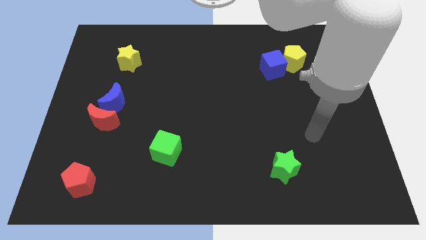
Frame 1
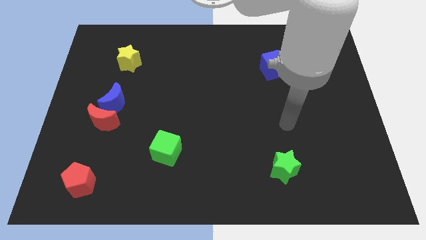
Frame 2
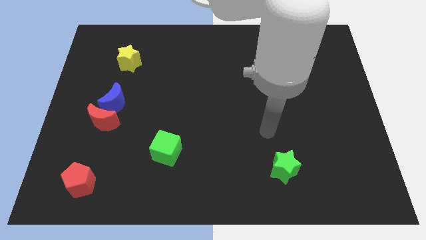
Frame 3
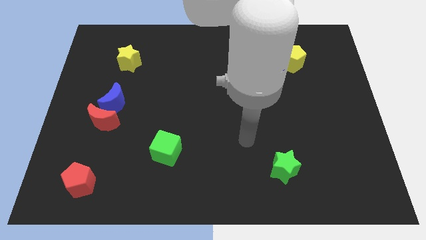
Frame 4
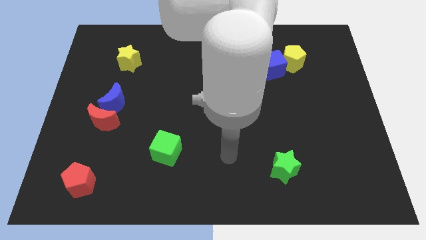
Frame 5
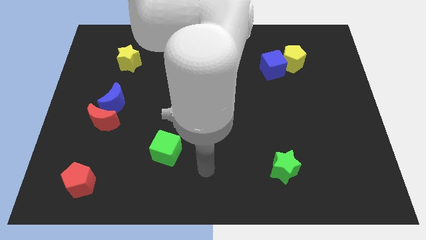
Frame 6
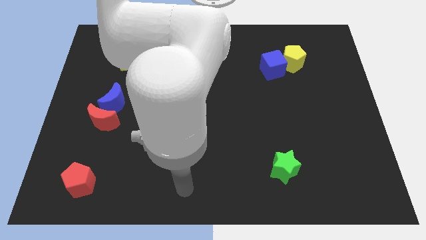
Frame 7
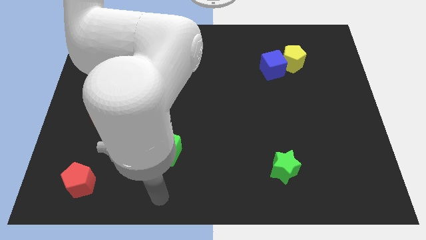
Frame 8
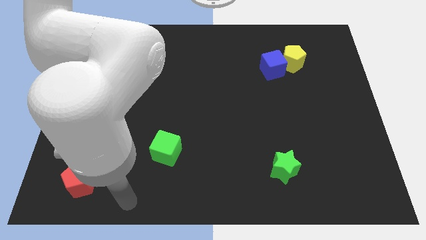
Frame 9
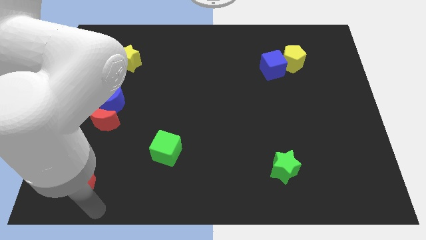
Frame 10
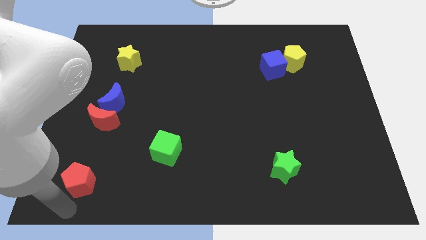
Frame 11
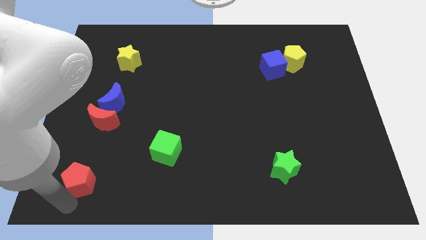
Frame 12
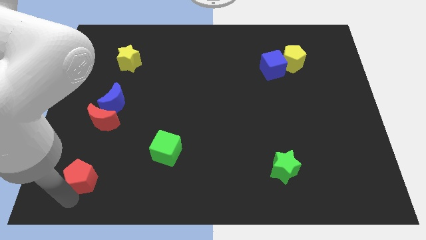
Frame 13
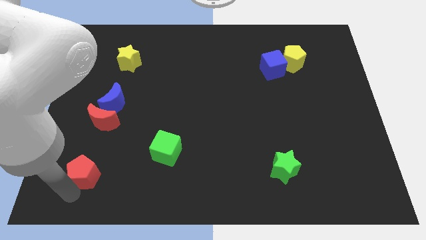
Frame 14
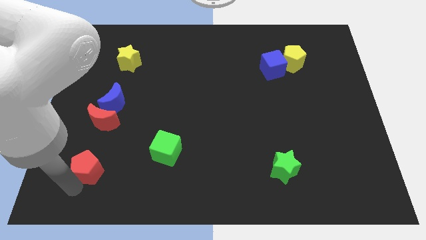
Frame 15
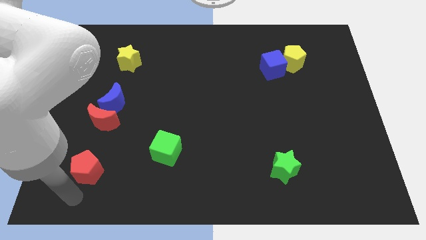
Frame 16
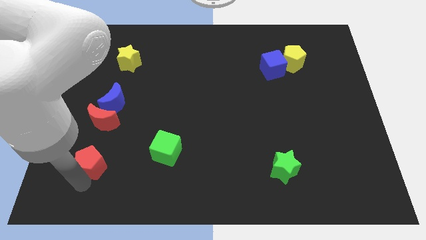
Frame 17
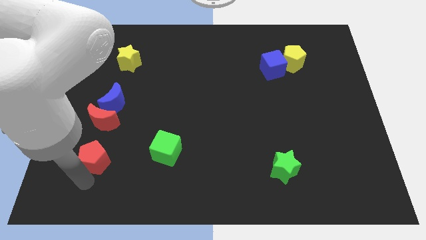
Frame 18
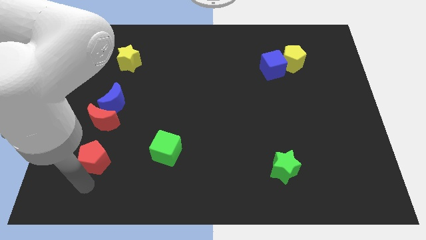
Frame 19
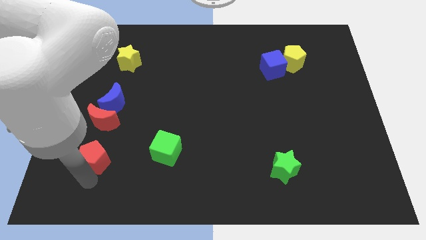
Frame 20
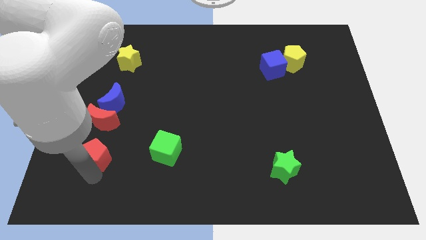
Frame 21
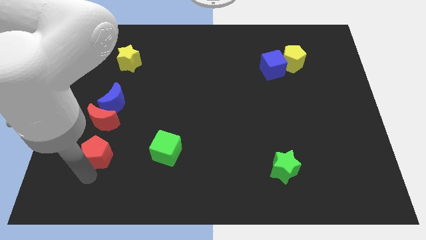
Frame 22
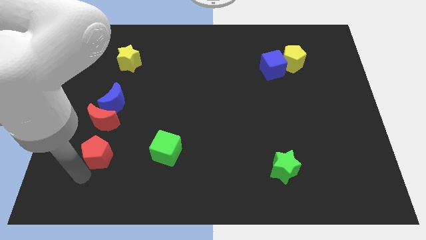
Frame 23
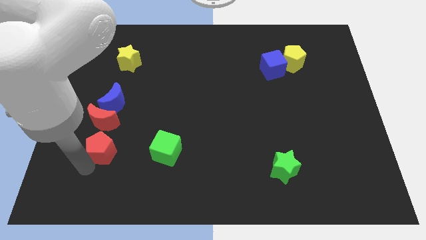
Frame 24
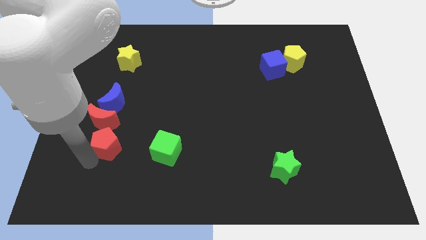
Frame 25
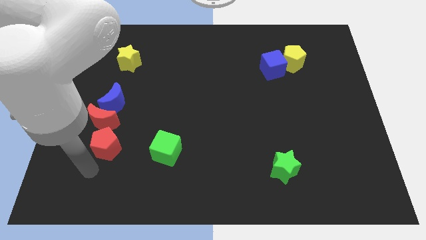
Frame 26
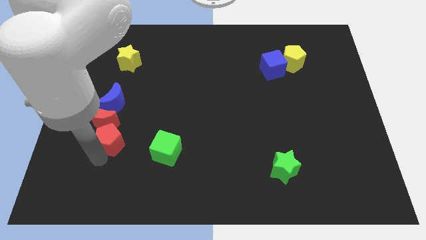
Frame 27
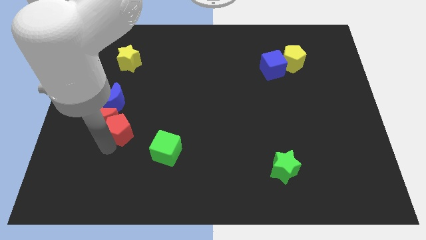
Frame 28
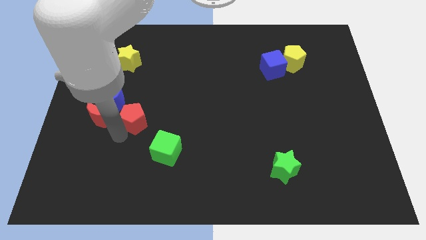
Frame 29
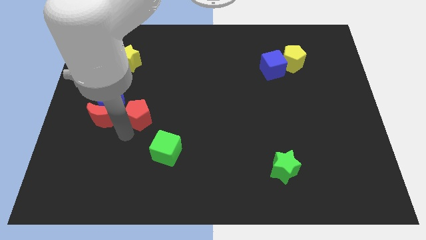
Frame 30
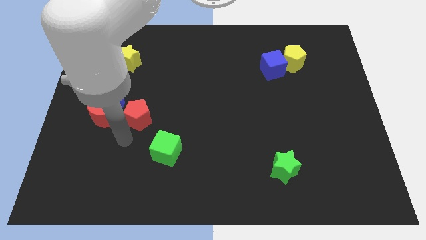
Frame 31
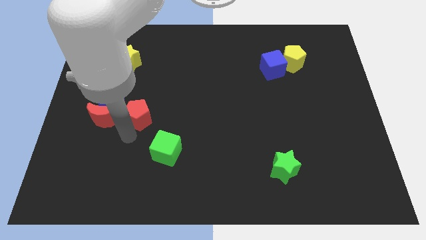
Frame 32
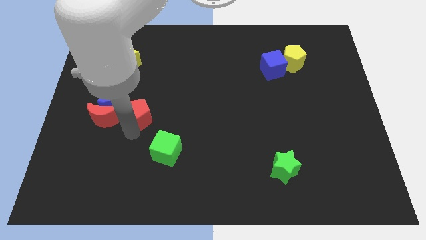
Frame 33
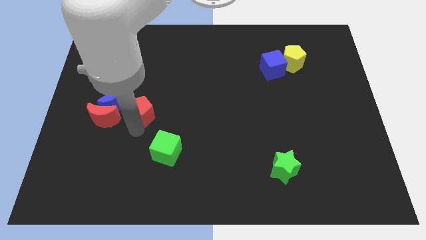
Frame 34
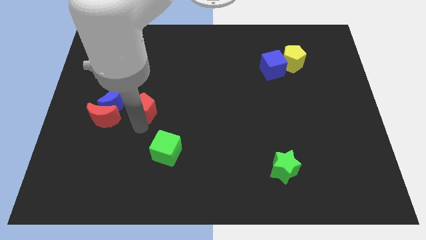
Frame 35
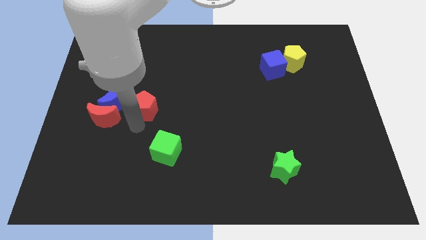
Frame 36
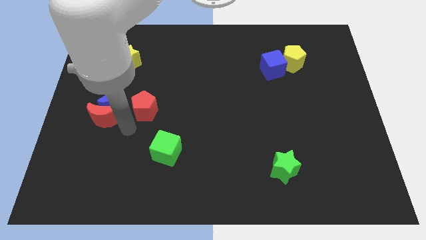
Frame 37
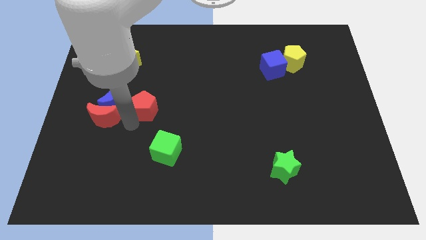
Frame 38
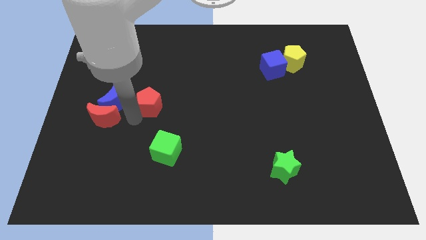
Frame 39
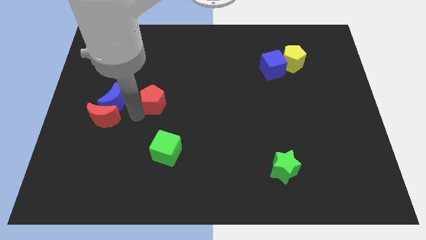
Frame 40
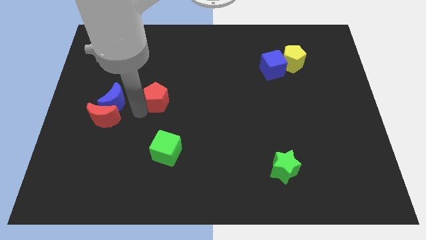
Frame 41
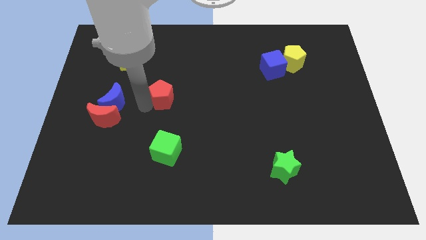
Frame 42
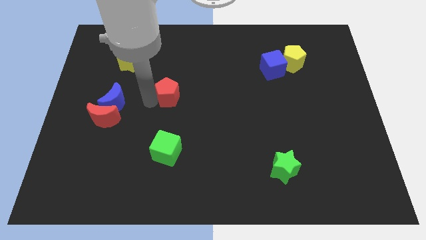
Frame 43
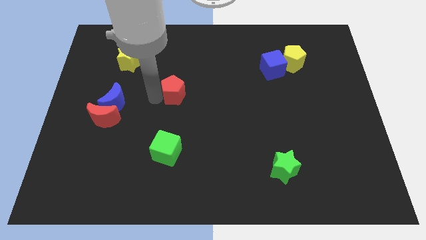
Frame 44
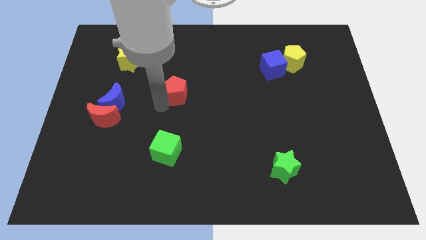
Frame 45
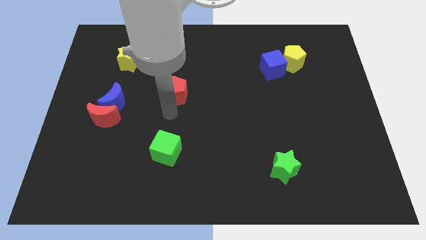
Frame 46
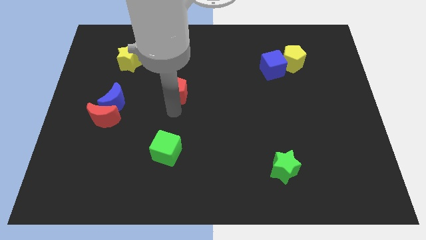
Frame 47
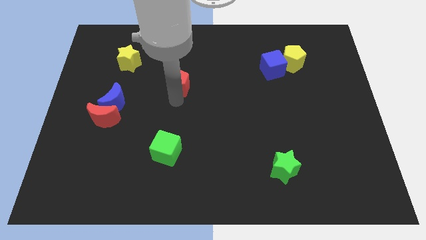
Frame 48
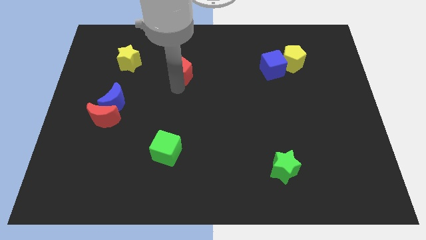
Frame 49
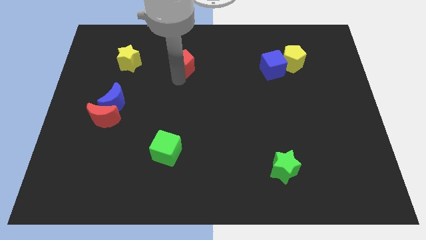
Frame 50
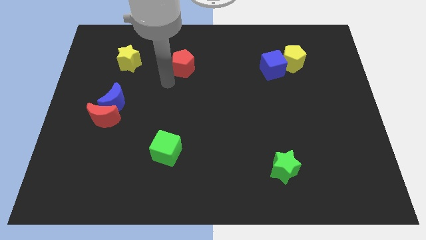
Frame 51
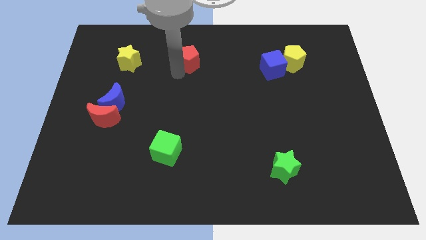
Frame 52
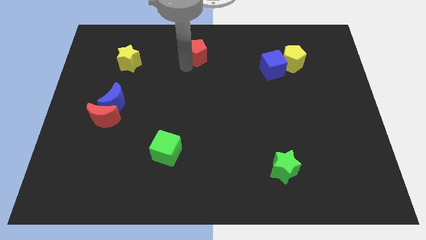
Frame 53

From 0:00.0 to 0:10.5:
put the red pentagon to the top

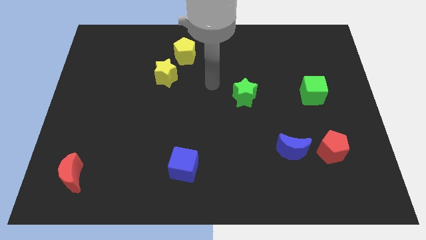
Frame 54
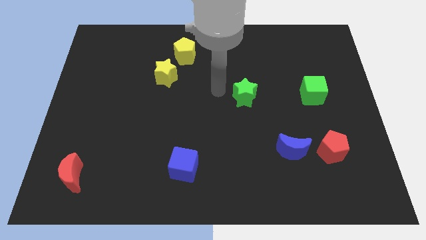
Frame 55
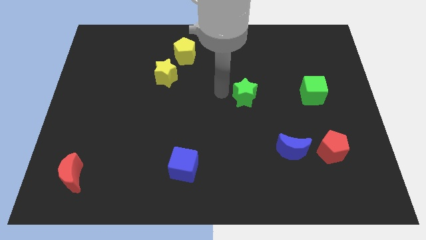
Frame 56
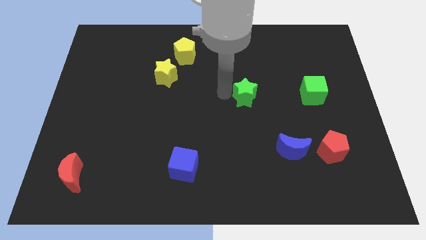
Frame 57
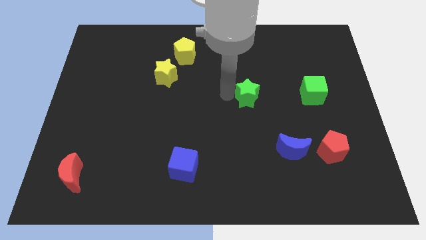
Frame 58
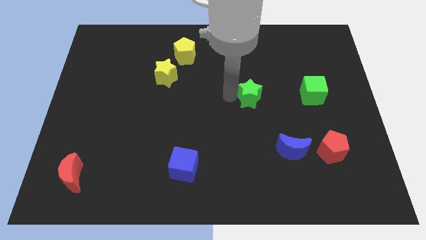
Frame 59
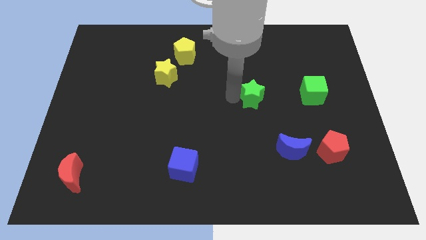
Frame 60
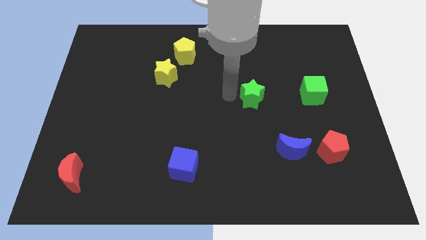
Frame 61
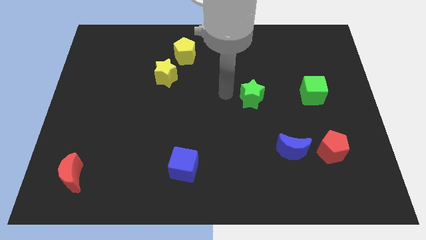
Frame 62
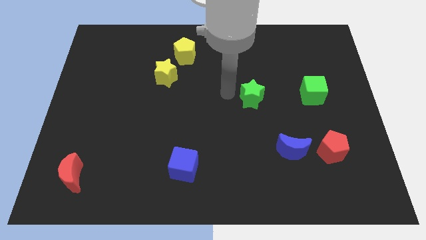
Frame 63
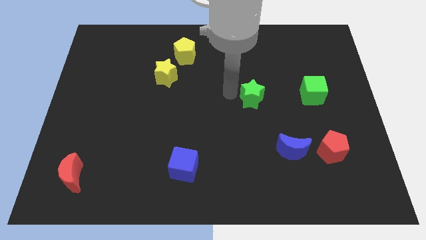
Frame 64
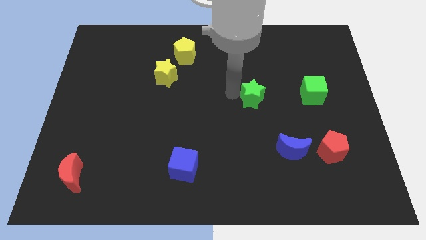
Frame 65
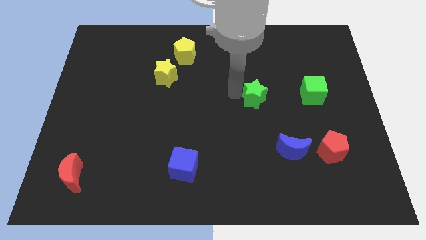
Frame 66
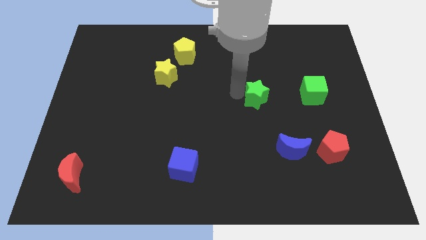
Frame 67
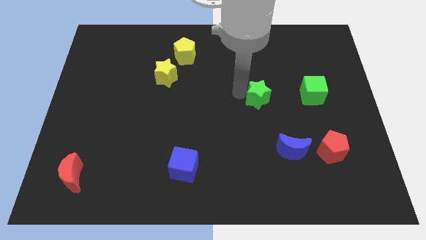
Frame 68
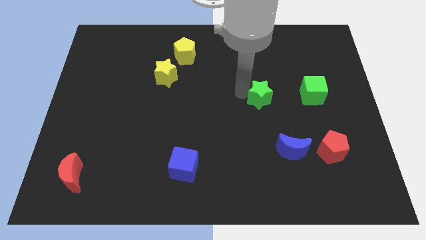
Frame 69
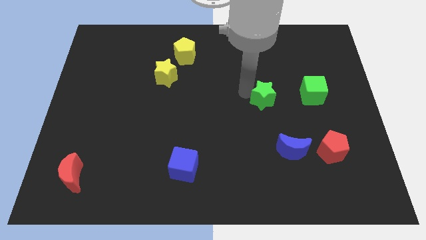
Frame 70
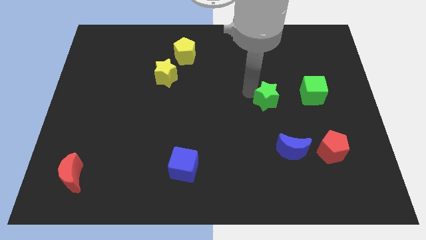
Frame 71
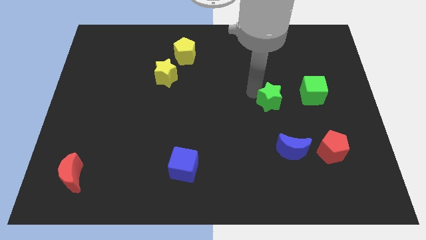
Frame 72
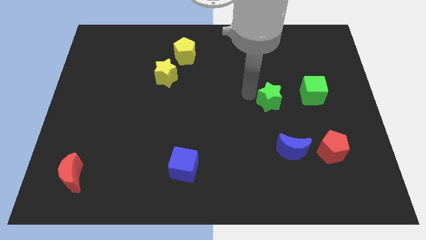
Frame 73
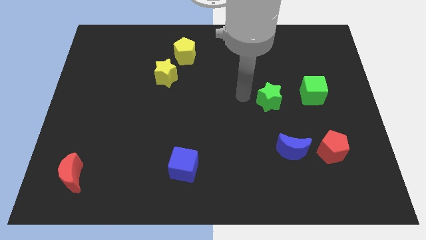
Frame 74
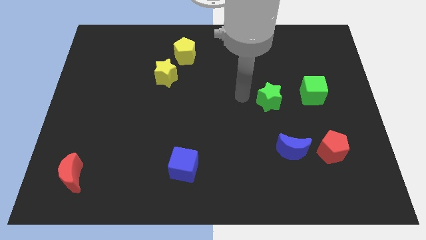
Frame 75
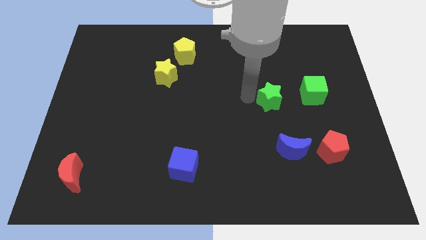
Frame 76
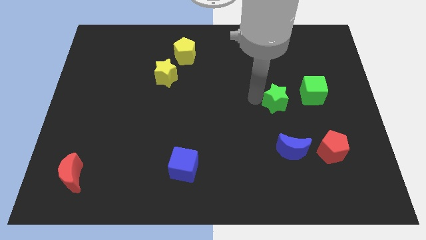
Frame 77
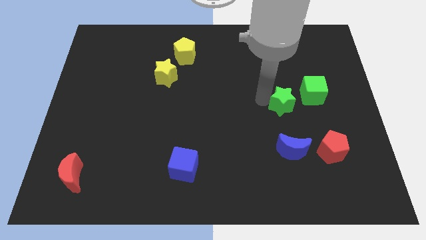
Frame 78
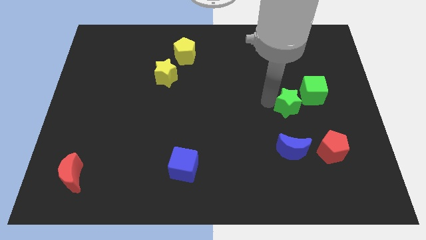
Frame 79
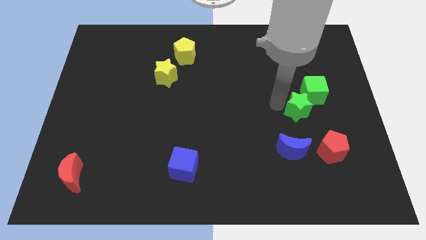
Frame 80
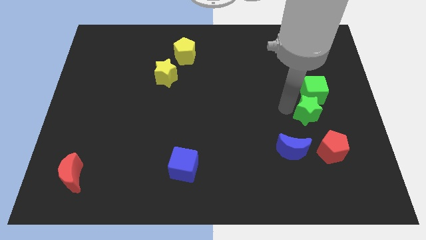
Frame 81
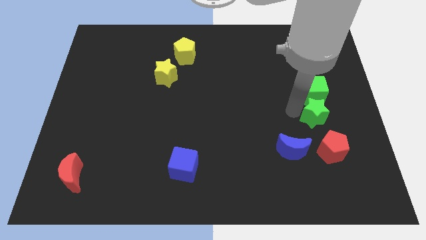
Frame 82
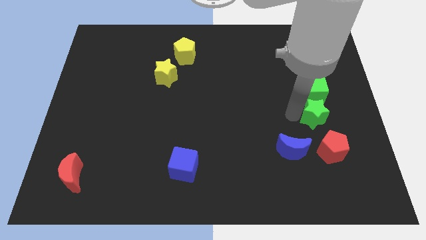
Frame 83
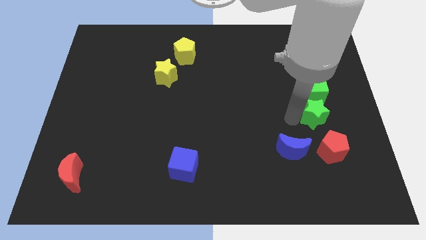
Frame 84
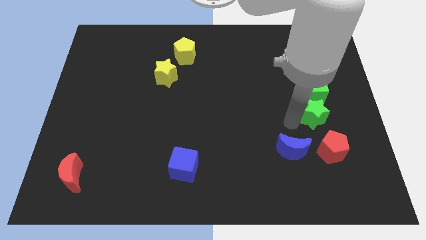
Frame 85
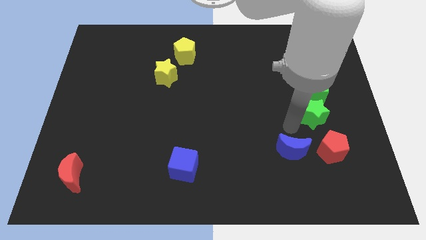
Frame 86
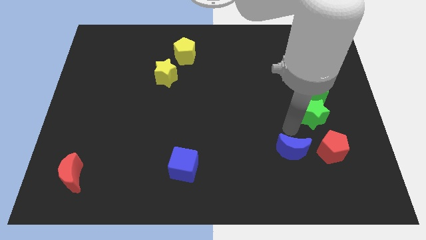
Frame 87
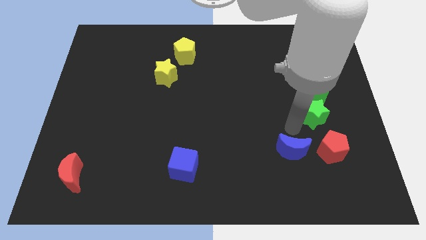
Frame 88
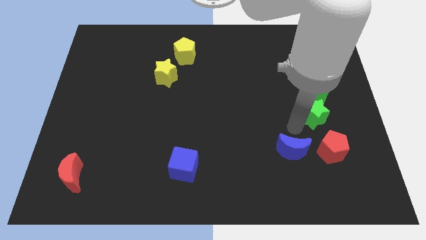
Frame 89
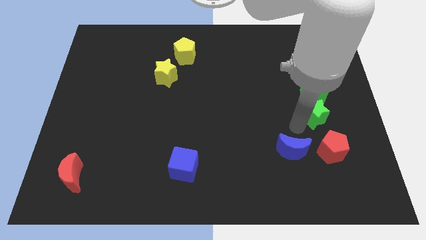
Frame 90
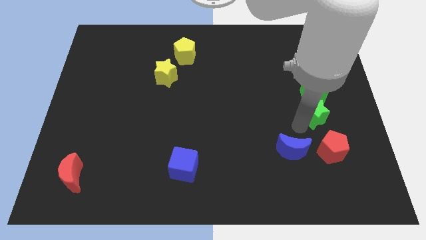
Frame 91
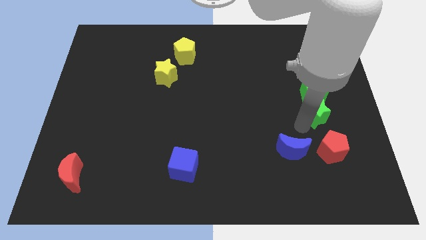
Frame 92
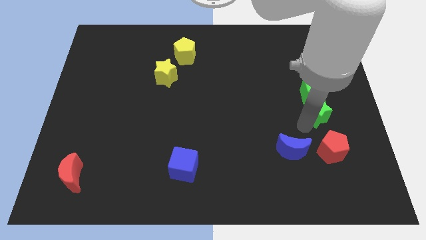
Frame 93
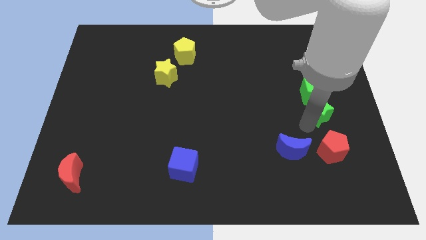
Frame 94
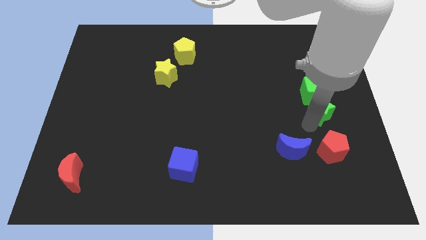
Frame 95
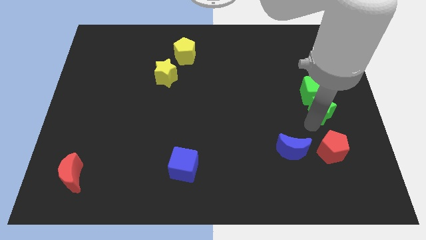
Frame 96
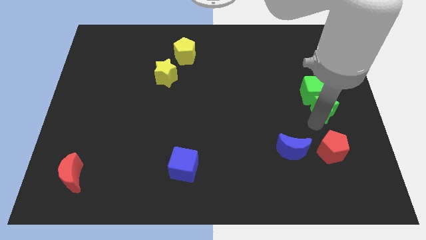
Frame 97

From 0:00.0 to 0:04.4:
put the green star to the right side
